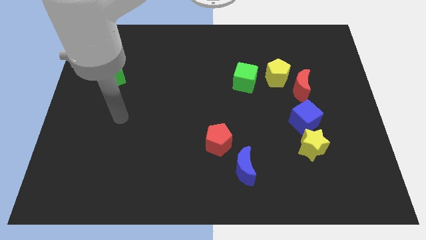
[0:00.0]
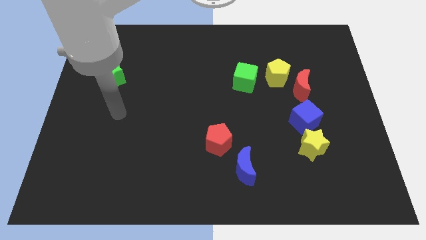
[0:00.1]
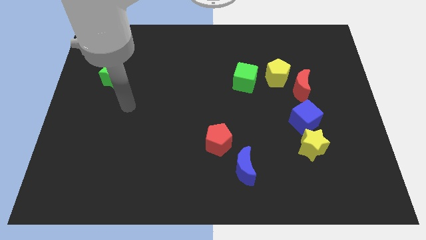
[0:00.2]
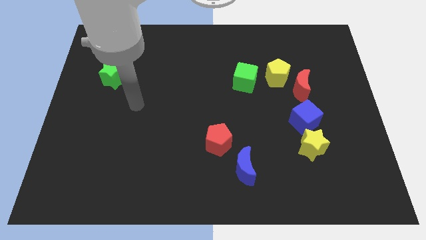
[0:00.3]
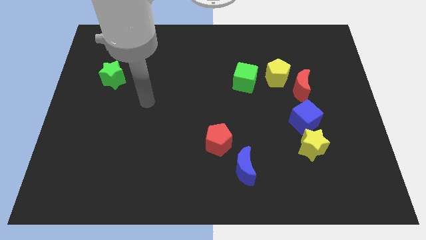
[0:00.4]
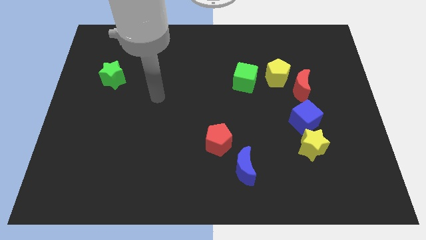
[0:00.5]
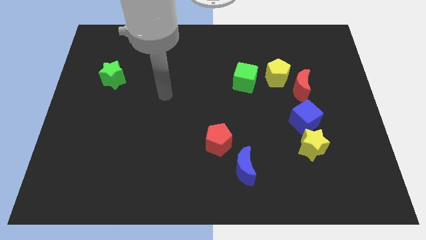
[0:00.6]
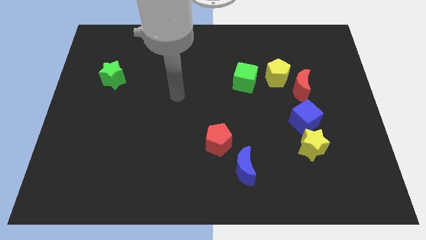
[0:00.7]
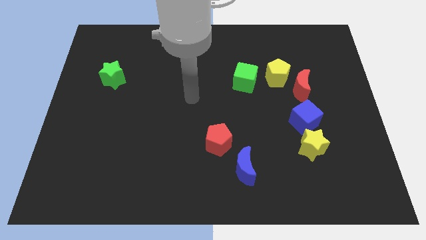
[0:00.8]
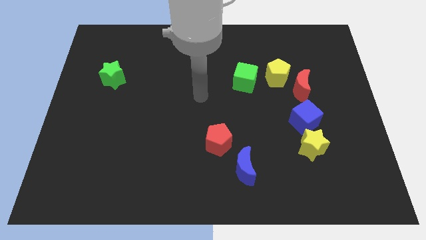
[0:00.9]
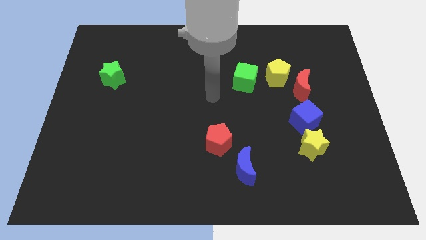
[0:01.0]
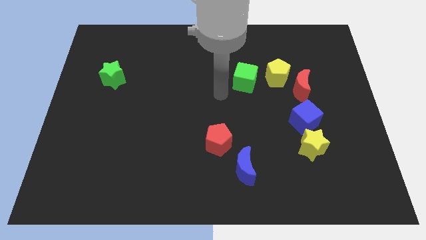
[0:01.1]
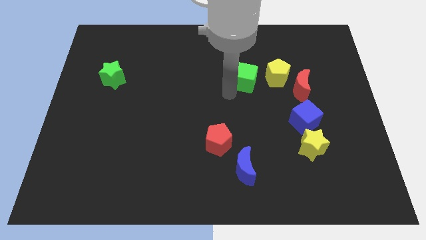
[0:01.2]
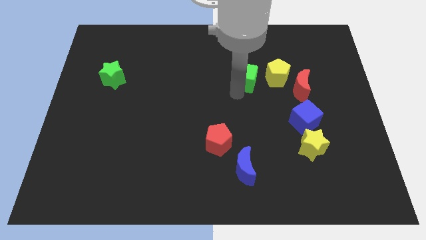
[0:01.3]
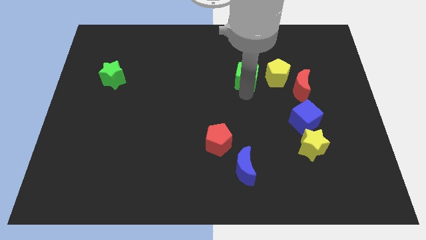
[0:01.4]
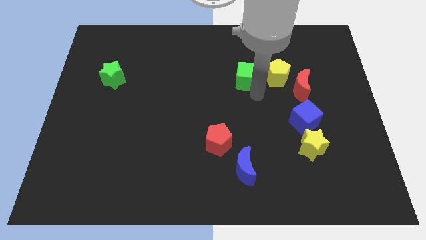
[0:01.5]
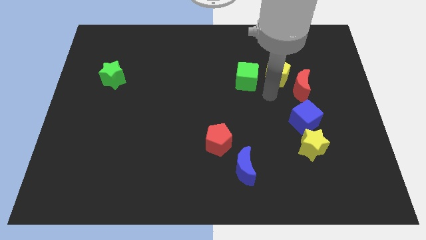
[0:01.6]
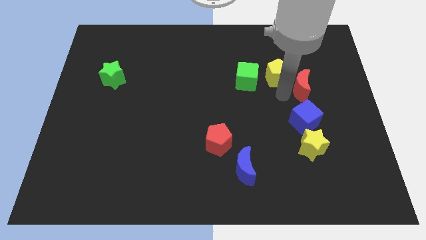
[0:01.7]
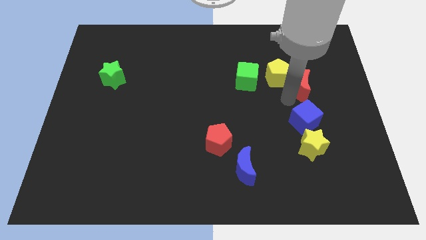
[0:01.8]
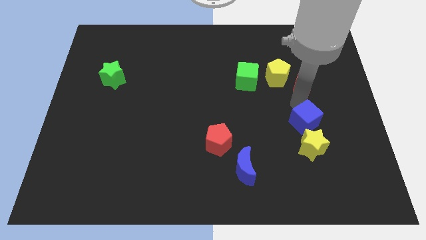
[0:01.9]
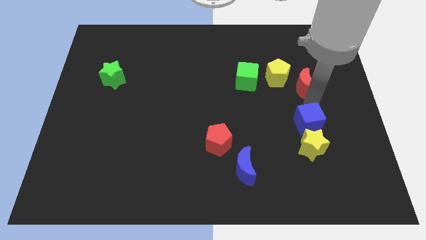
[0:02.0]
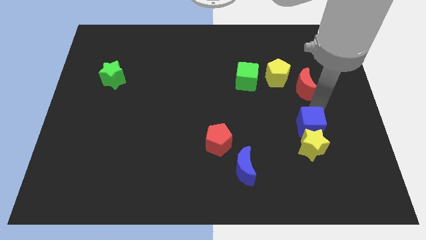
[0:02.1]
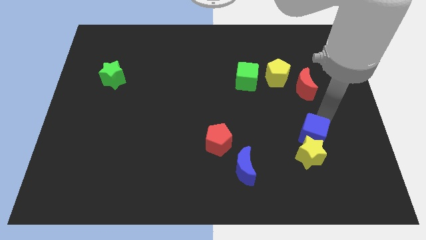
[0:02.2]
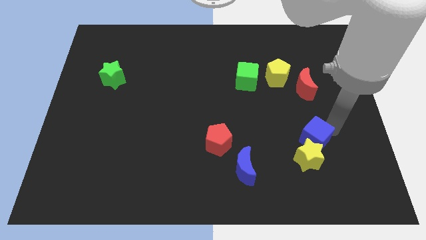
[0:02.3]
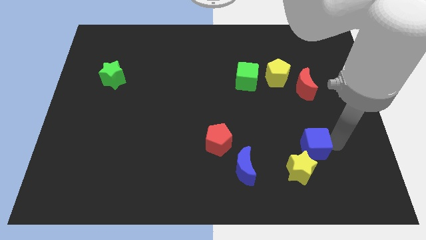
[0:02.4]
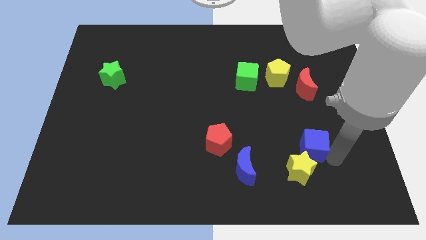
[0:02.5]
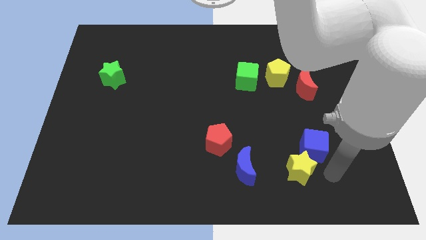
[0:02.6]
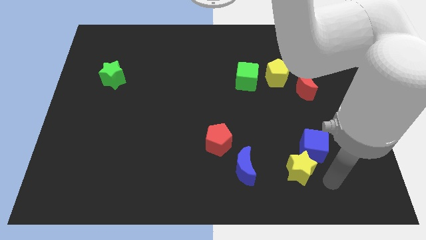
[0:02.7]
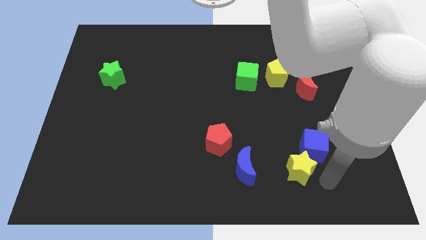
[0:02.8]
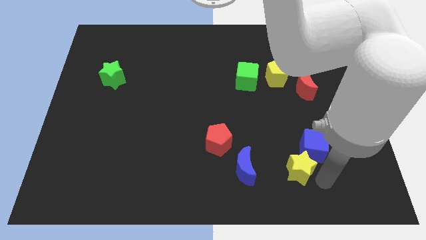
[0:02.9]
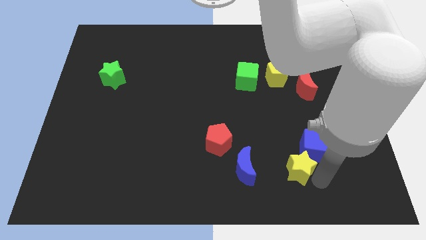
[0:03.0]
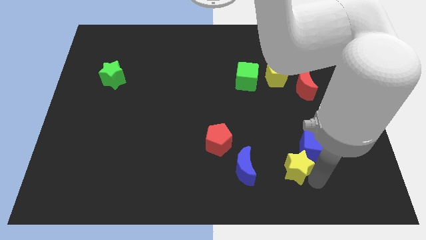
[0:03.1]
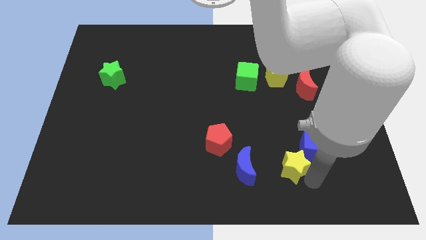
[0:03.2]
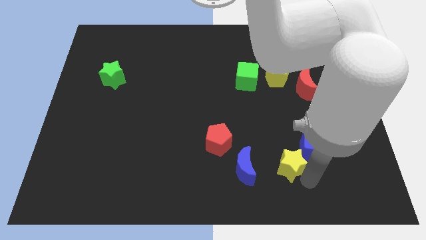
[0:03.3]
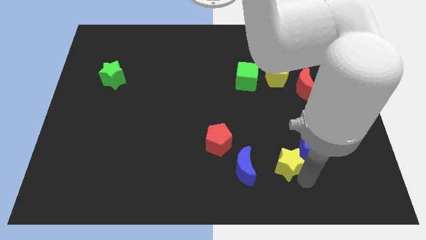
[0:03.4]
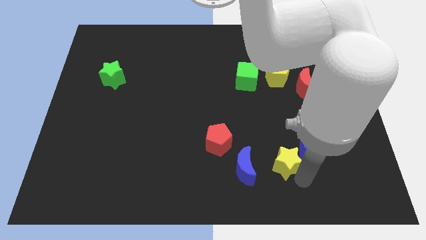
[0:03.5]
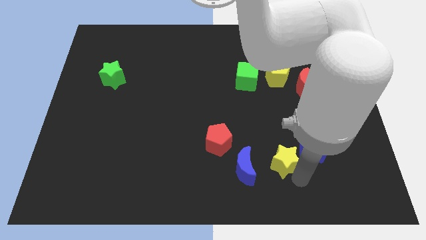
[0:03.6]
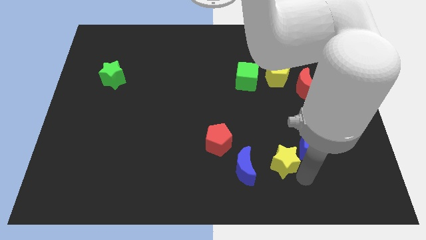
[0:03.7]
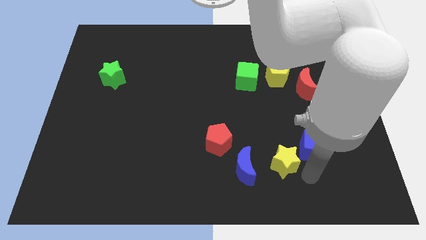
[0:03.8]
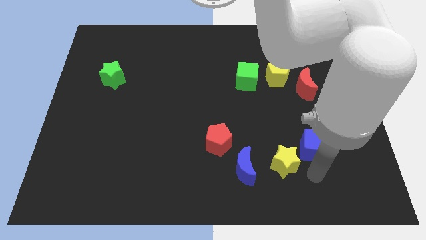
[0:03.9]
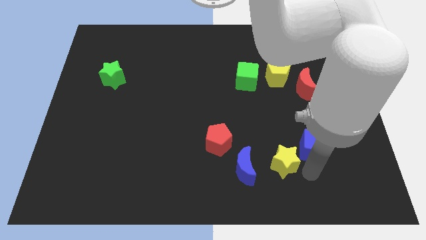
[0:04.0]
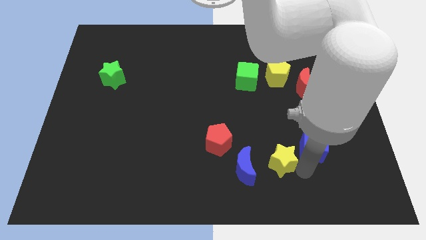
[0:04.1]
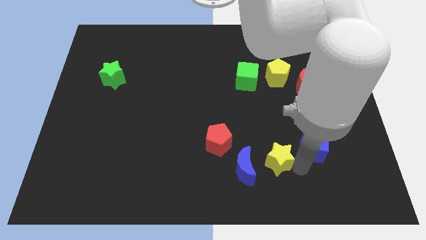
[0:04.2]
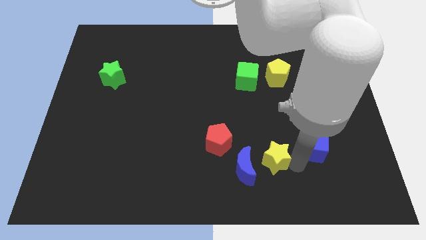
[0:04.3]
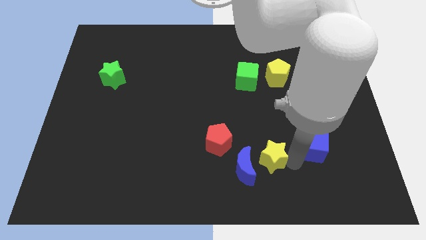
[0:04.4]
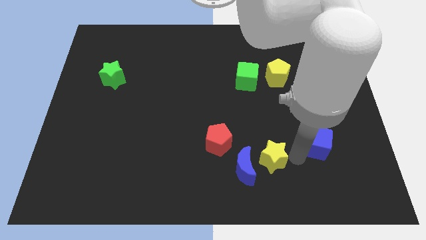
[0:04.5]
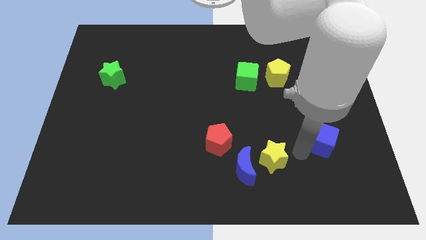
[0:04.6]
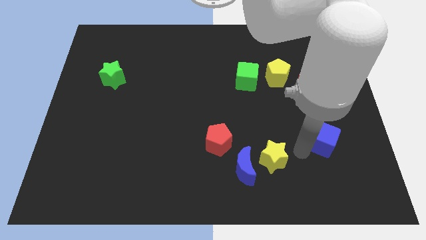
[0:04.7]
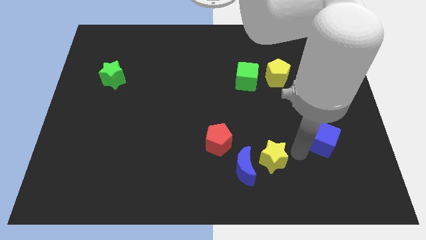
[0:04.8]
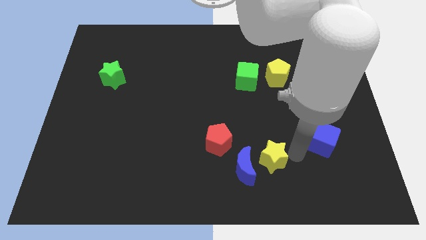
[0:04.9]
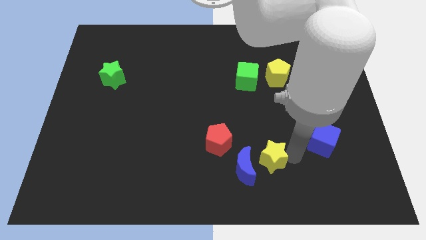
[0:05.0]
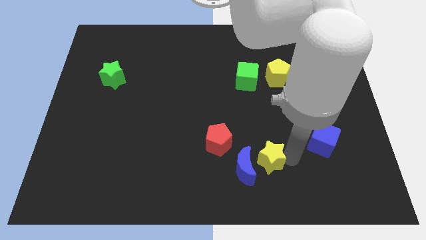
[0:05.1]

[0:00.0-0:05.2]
push the yellow star to the blue moon

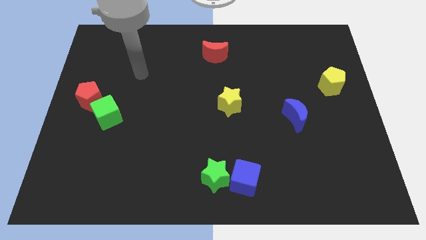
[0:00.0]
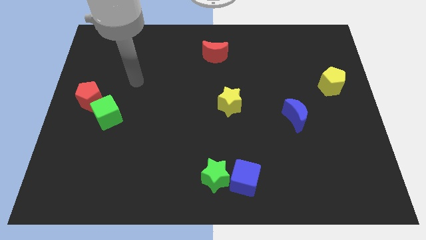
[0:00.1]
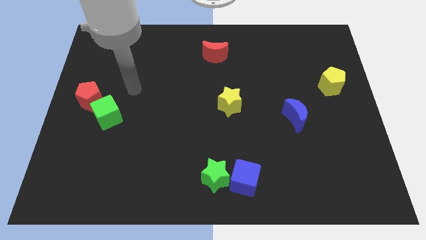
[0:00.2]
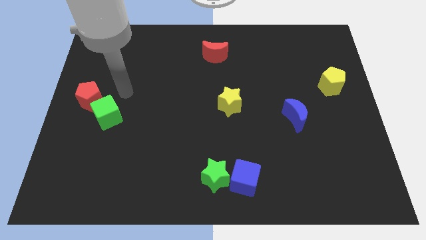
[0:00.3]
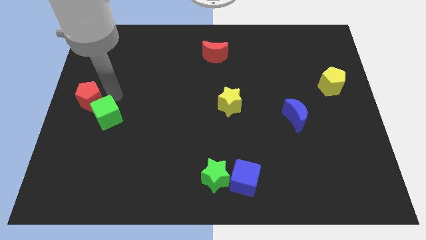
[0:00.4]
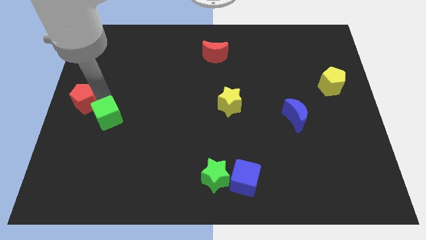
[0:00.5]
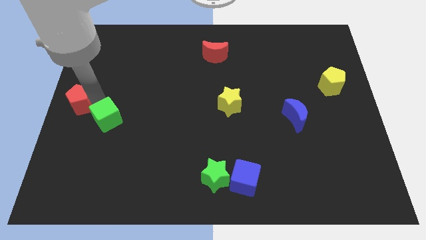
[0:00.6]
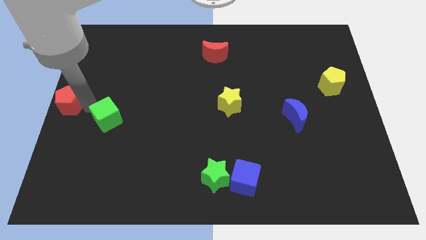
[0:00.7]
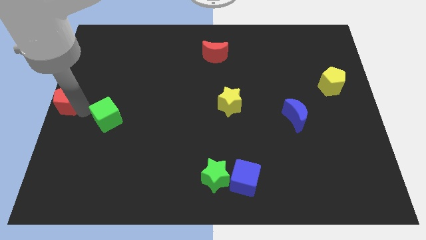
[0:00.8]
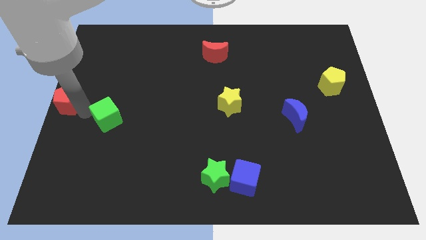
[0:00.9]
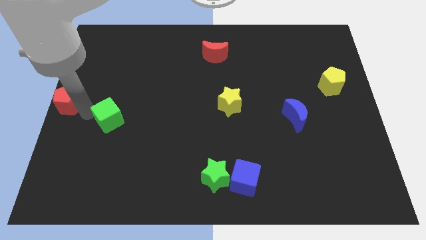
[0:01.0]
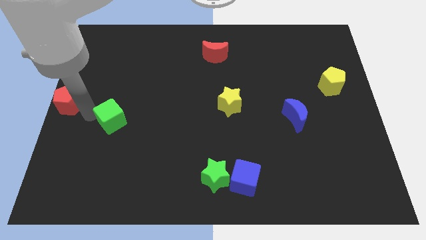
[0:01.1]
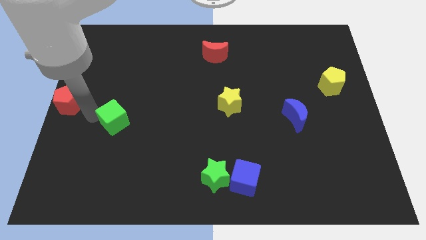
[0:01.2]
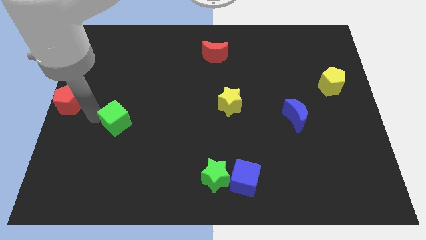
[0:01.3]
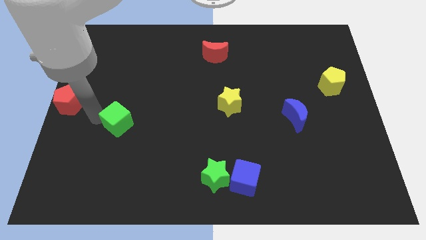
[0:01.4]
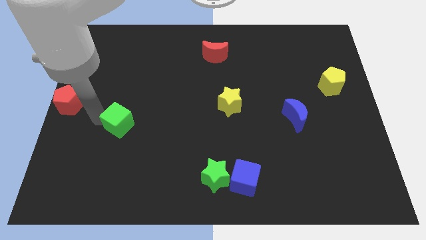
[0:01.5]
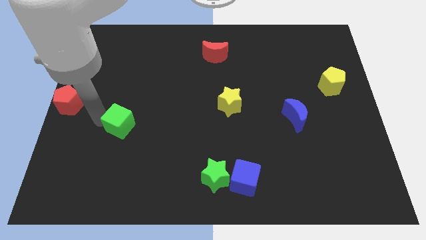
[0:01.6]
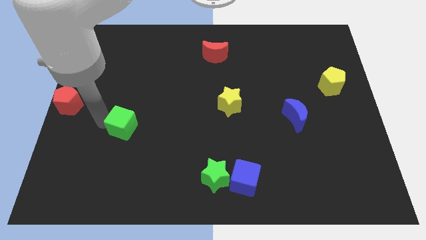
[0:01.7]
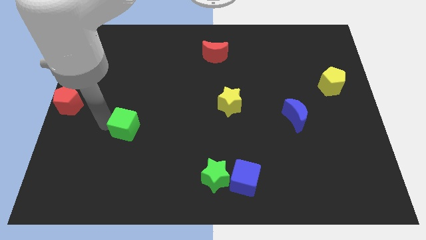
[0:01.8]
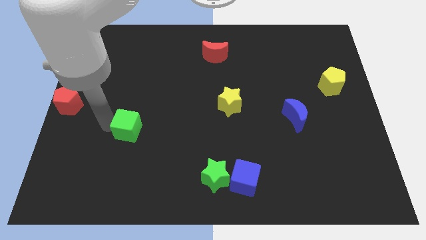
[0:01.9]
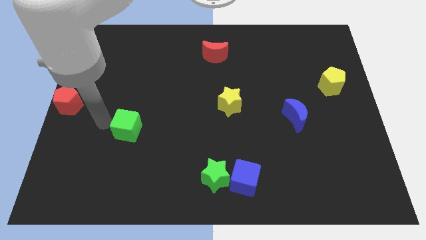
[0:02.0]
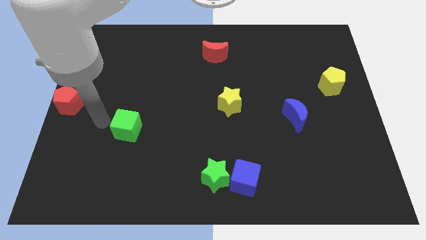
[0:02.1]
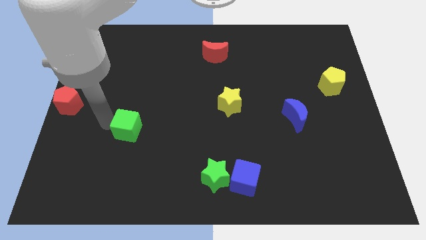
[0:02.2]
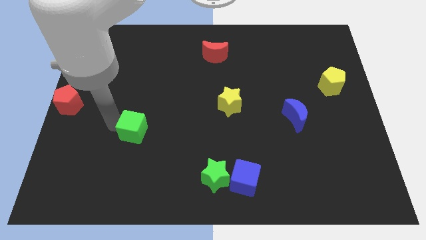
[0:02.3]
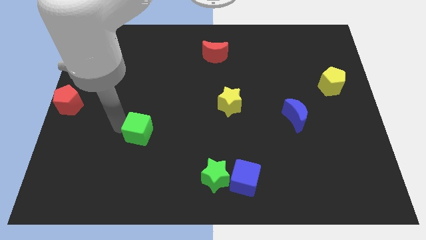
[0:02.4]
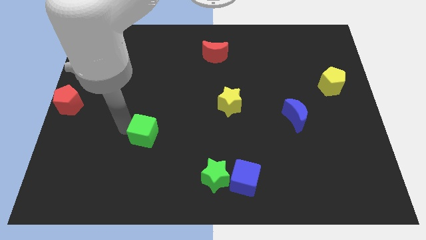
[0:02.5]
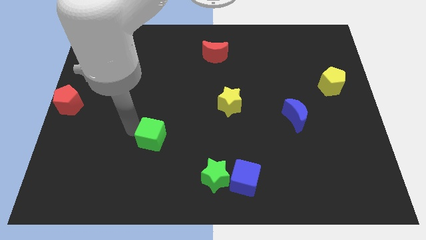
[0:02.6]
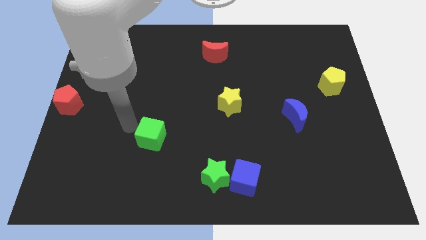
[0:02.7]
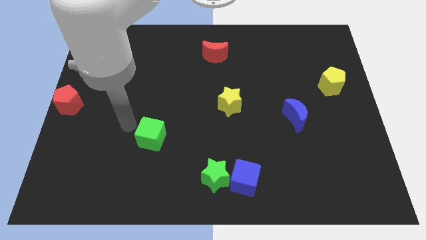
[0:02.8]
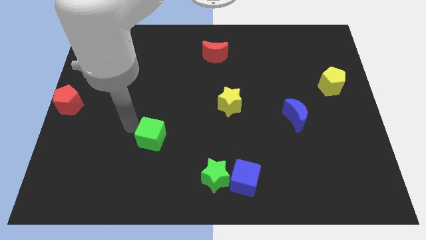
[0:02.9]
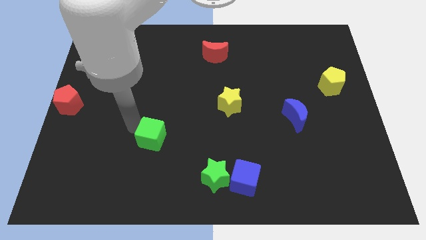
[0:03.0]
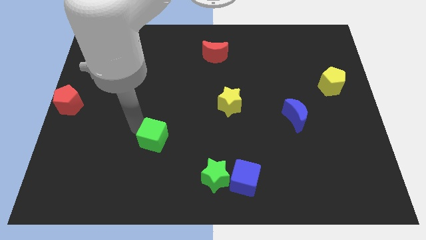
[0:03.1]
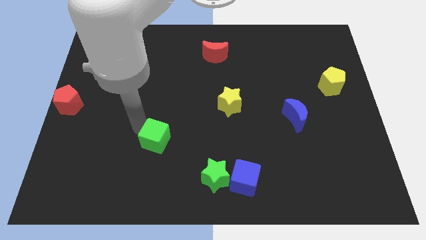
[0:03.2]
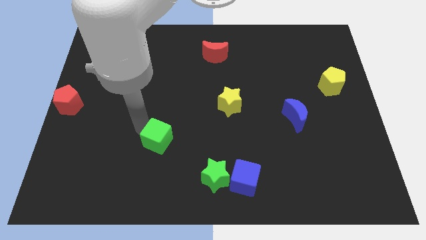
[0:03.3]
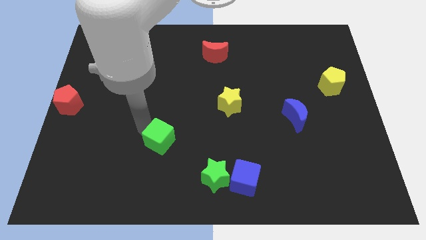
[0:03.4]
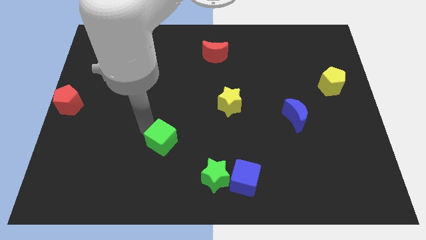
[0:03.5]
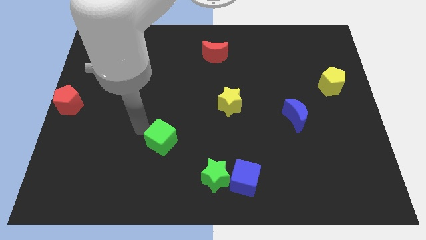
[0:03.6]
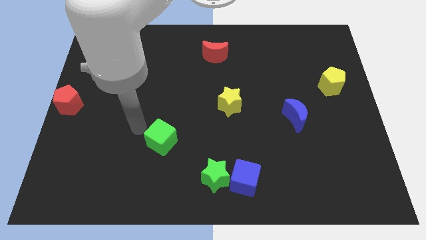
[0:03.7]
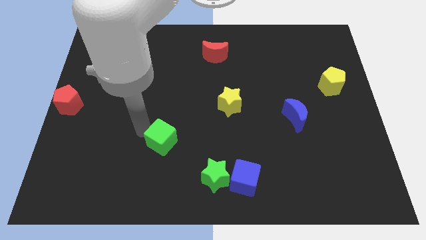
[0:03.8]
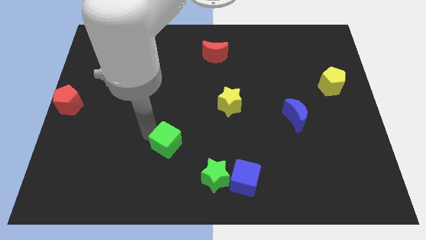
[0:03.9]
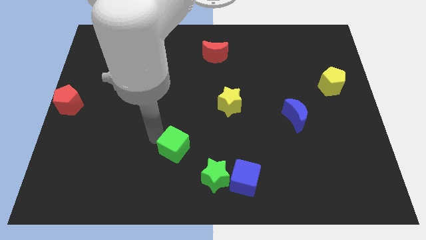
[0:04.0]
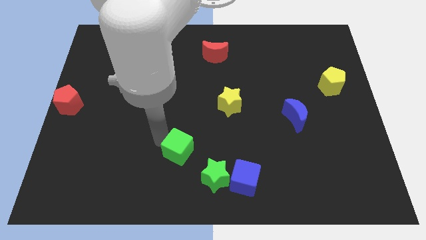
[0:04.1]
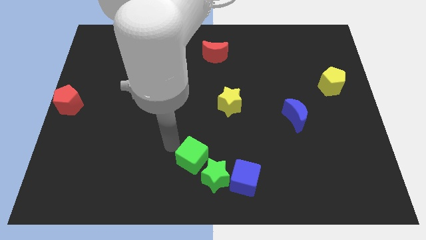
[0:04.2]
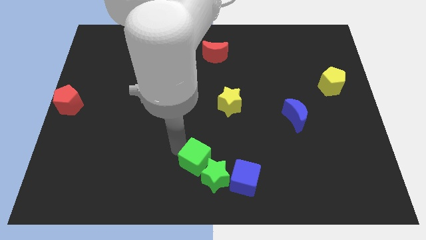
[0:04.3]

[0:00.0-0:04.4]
slide the green cube towards the green star
